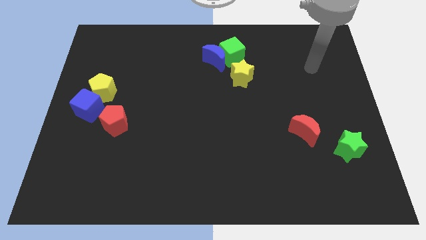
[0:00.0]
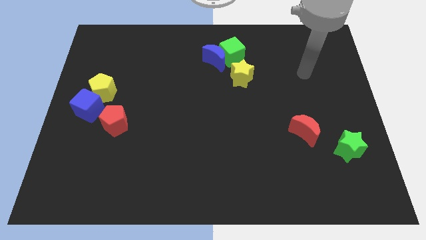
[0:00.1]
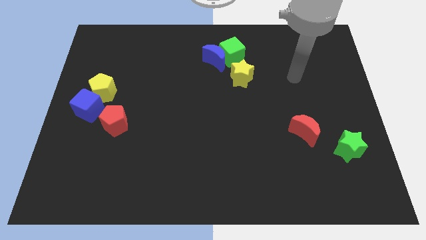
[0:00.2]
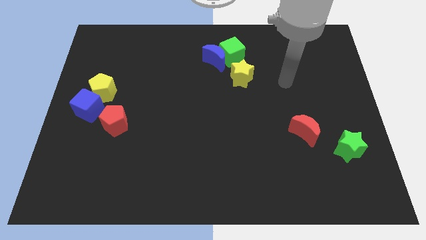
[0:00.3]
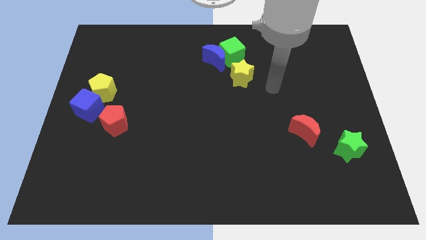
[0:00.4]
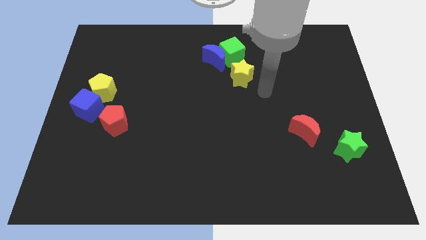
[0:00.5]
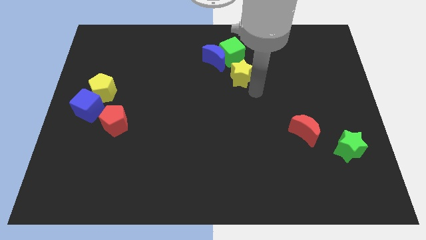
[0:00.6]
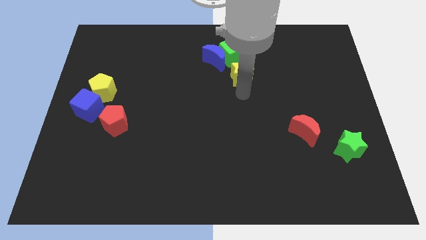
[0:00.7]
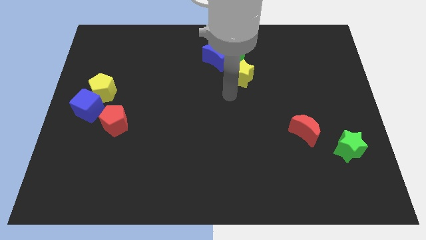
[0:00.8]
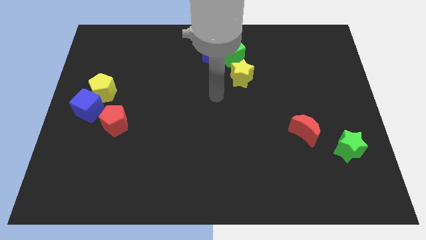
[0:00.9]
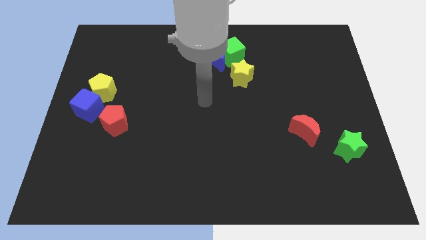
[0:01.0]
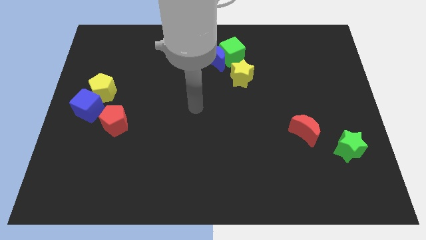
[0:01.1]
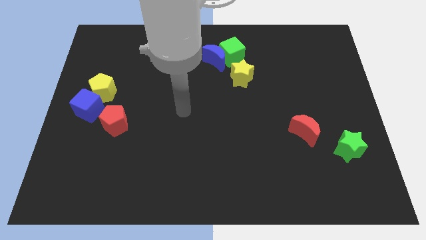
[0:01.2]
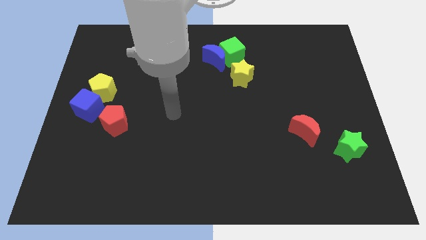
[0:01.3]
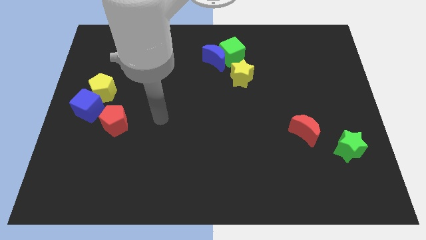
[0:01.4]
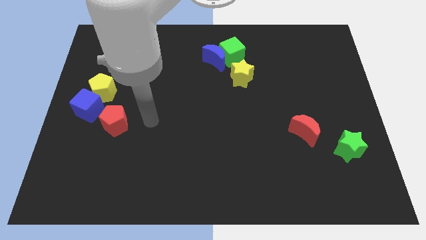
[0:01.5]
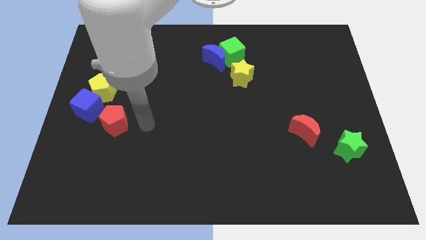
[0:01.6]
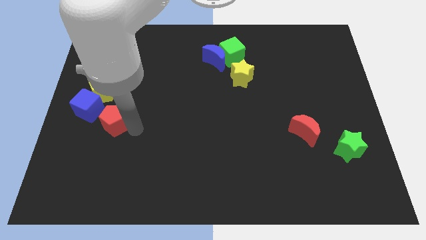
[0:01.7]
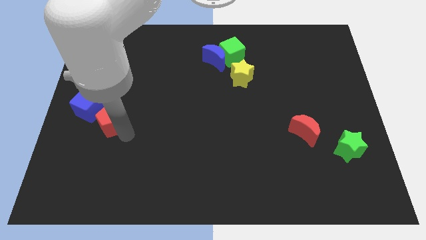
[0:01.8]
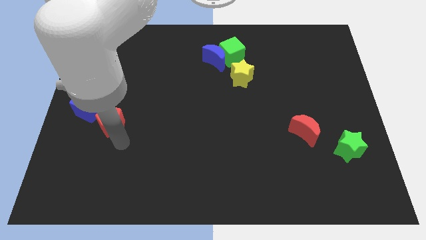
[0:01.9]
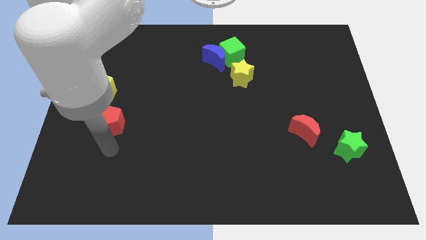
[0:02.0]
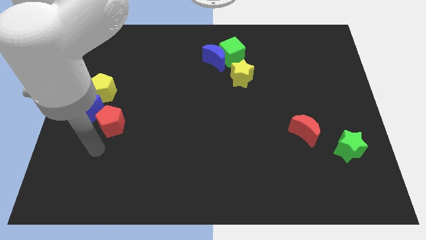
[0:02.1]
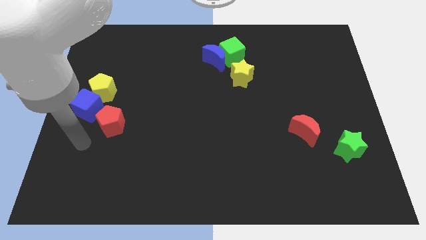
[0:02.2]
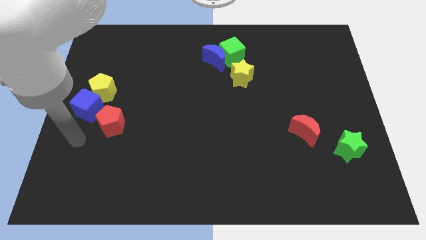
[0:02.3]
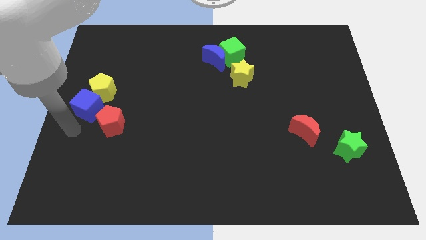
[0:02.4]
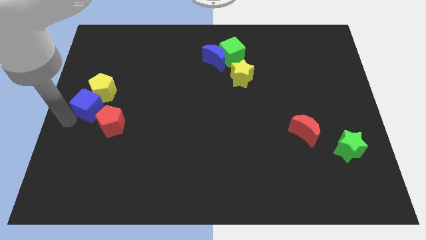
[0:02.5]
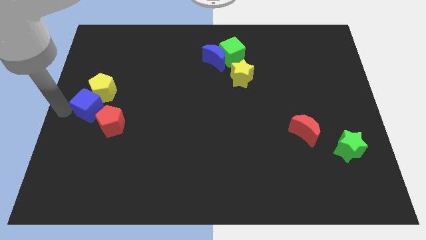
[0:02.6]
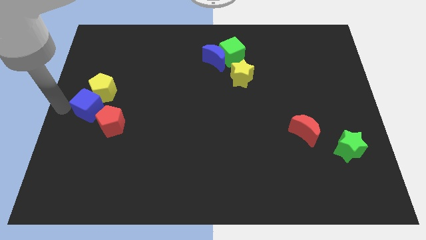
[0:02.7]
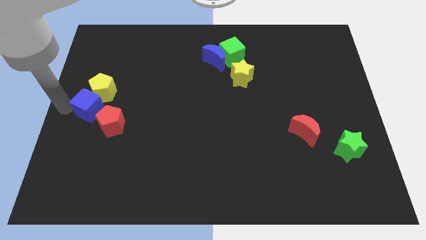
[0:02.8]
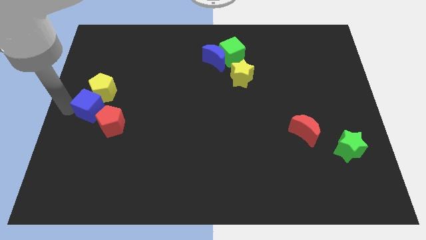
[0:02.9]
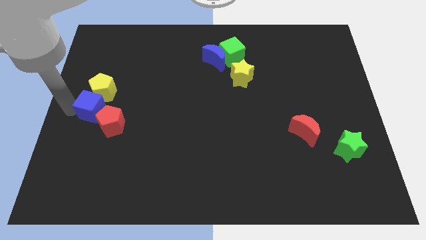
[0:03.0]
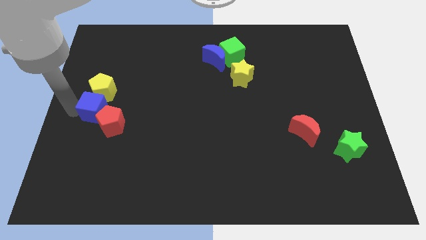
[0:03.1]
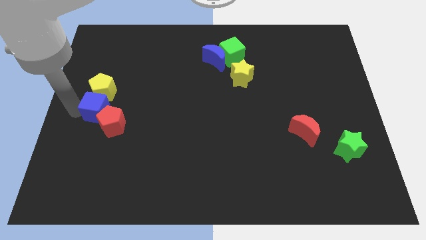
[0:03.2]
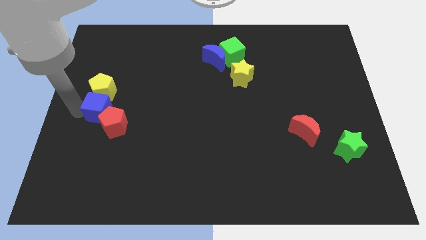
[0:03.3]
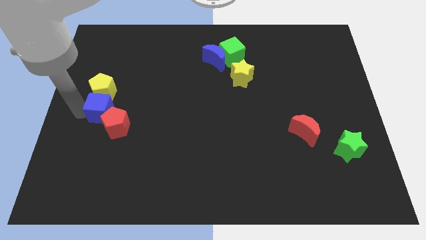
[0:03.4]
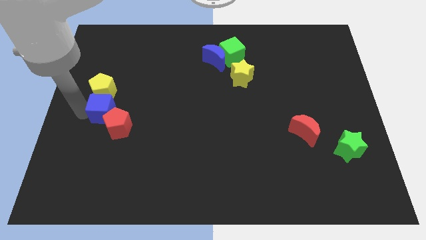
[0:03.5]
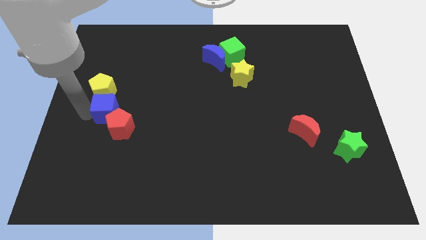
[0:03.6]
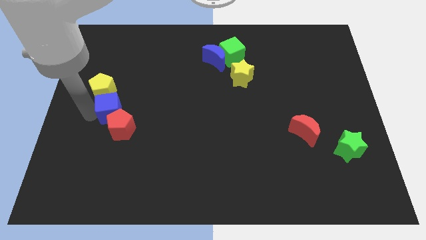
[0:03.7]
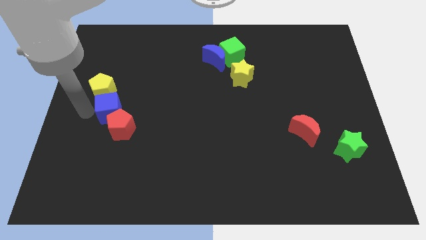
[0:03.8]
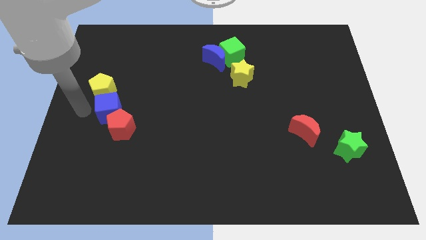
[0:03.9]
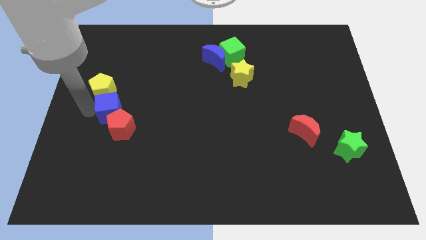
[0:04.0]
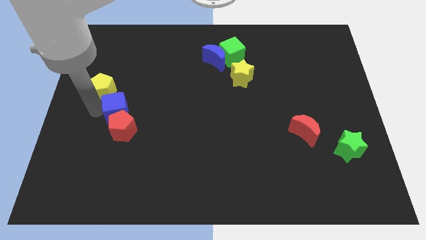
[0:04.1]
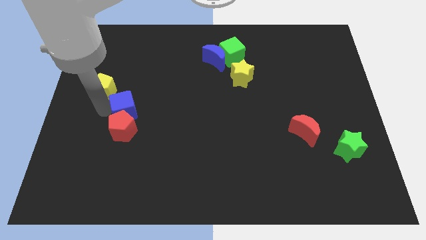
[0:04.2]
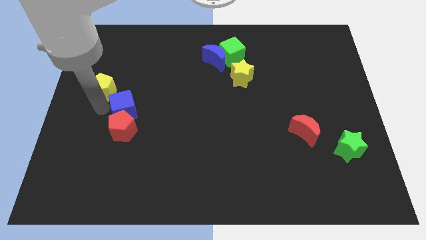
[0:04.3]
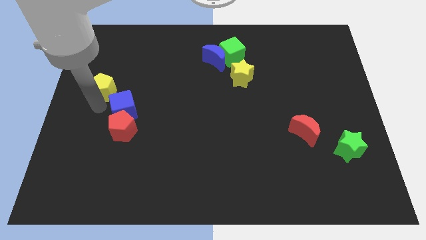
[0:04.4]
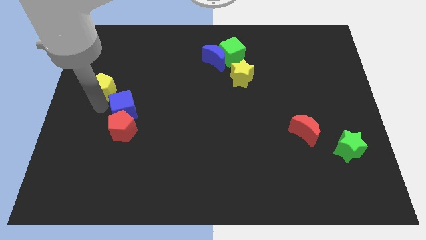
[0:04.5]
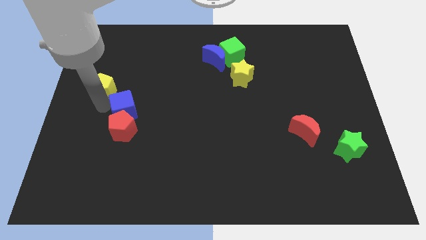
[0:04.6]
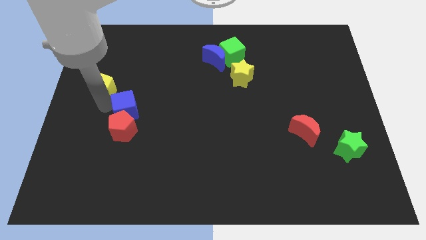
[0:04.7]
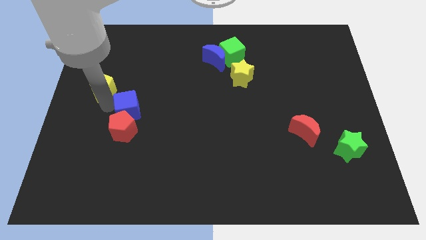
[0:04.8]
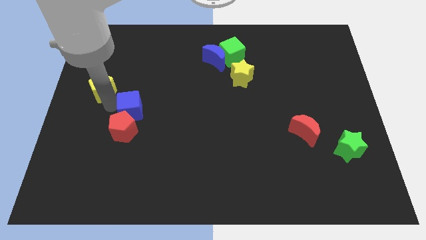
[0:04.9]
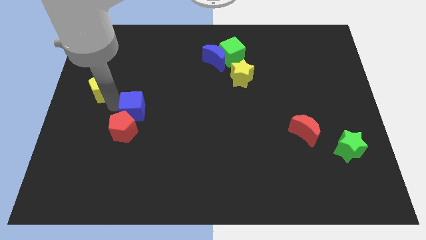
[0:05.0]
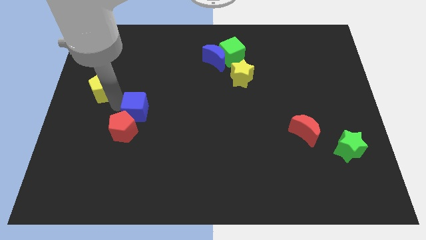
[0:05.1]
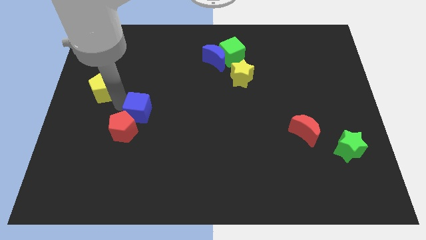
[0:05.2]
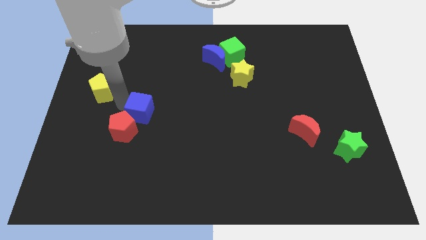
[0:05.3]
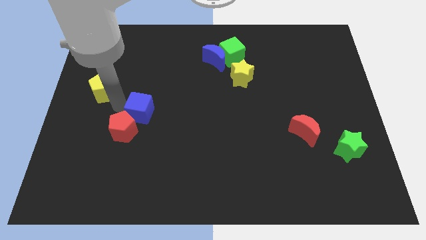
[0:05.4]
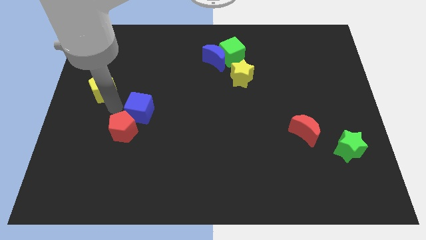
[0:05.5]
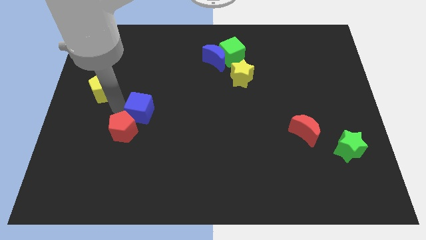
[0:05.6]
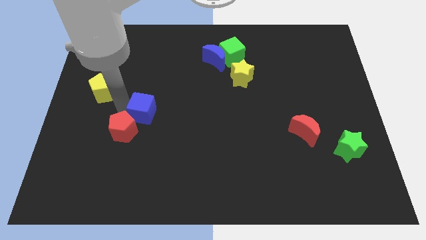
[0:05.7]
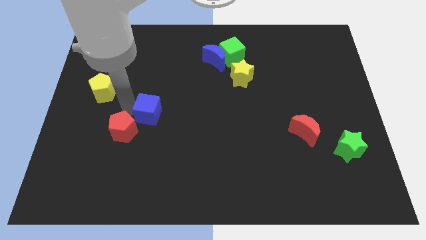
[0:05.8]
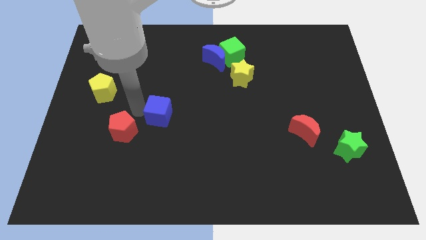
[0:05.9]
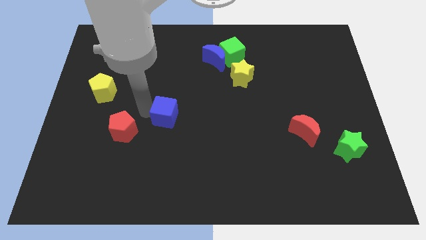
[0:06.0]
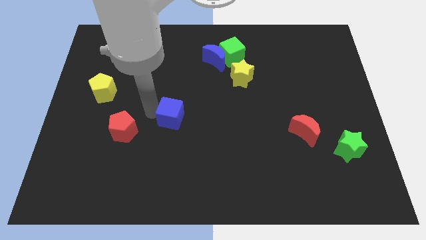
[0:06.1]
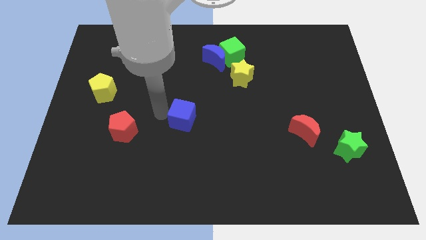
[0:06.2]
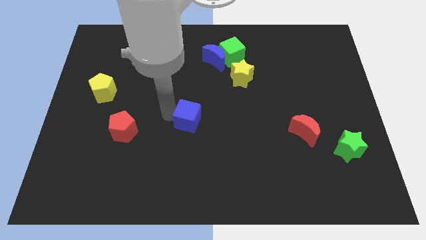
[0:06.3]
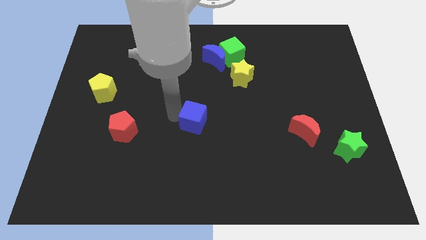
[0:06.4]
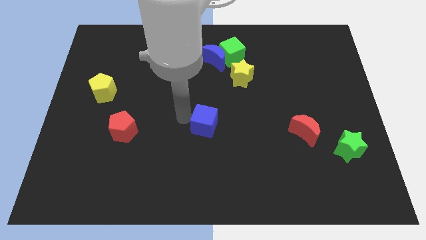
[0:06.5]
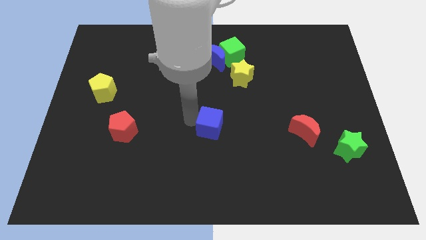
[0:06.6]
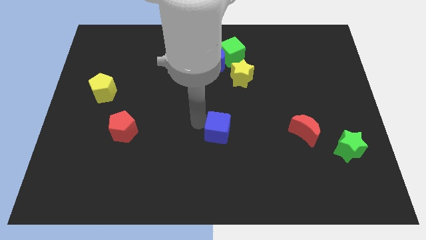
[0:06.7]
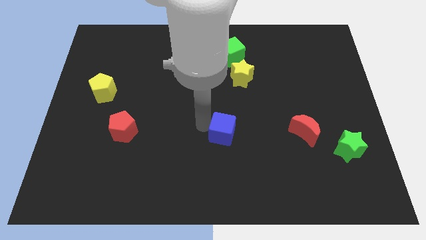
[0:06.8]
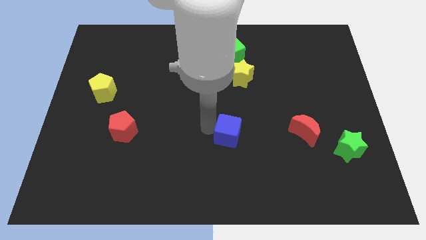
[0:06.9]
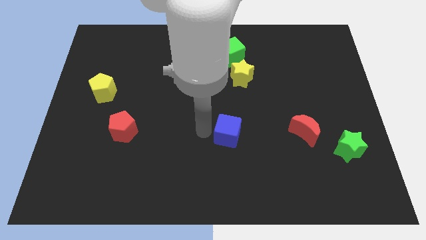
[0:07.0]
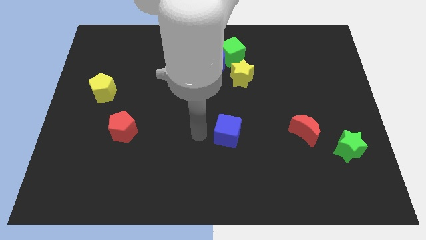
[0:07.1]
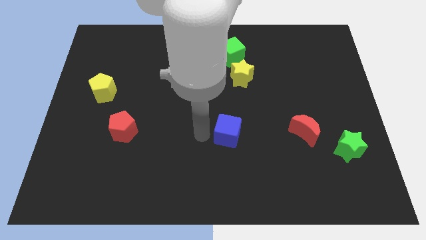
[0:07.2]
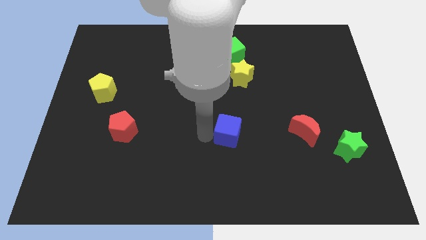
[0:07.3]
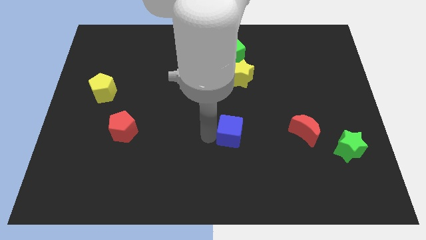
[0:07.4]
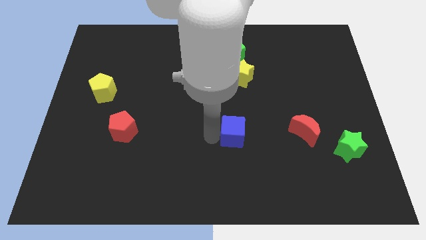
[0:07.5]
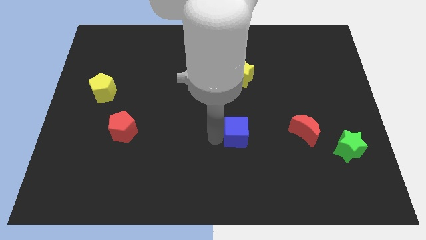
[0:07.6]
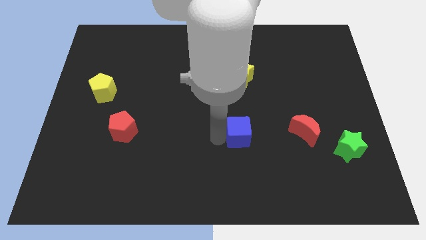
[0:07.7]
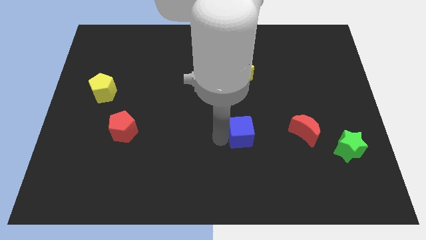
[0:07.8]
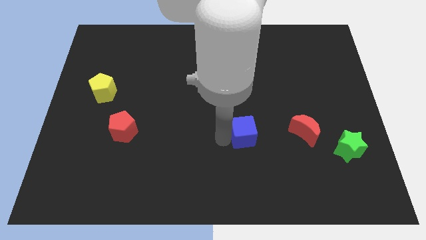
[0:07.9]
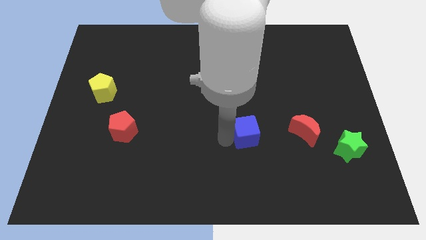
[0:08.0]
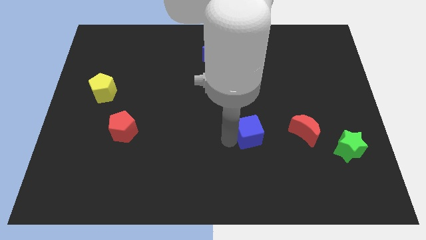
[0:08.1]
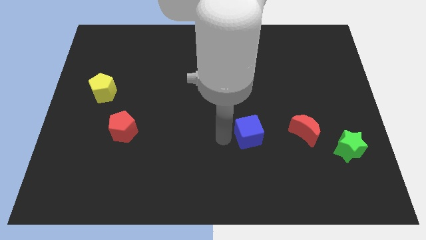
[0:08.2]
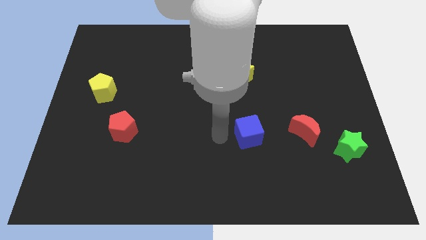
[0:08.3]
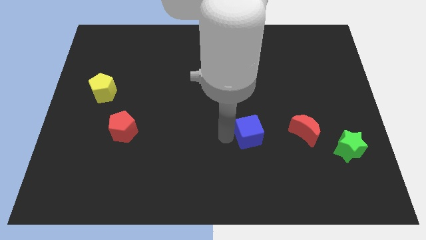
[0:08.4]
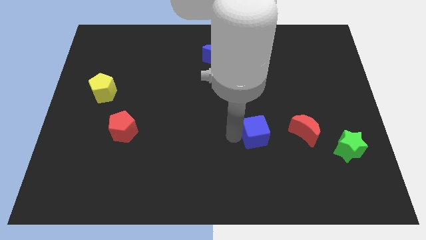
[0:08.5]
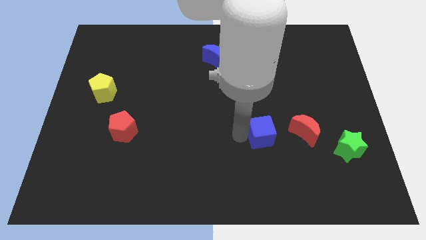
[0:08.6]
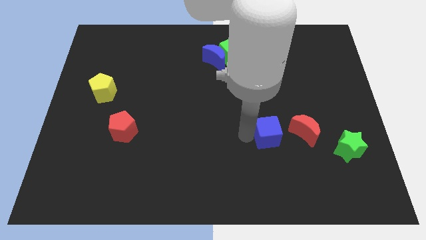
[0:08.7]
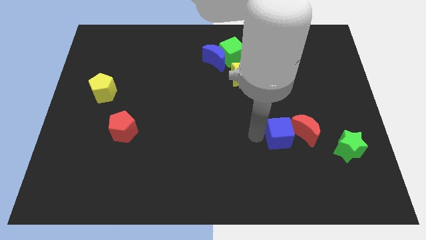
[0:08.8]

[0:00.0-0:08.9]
slide the blue cube close to the red moon
